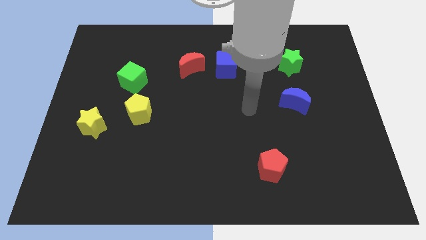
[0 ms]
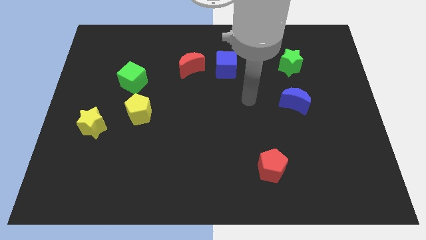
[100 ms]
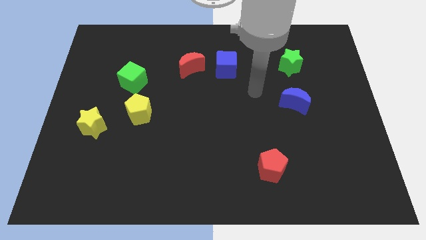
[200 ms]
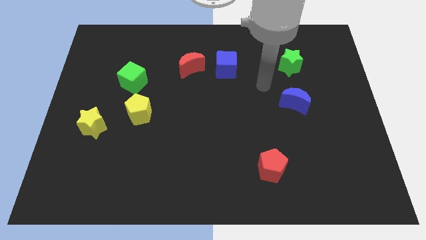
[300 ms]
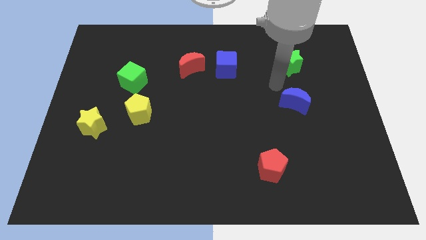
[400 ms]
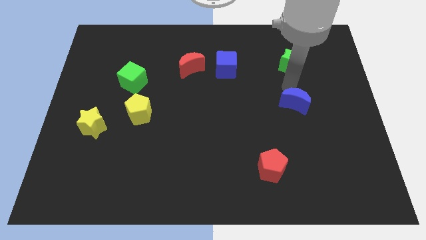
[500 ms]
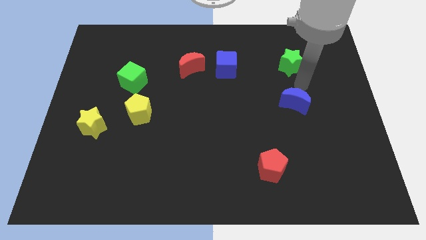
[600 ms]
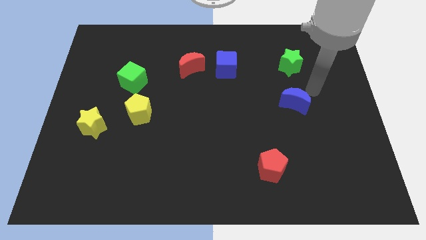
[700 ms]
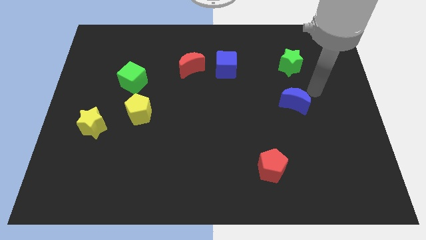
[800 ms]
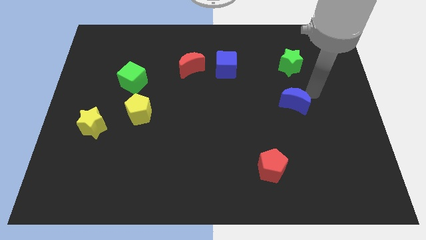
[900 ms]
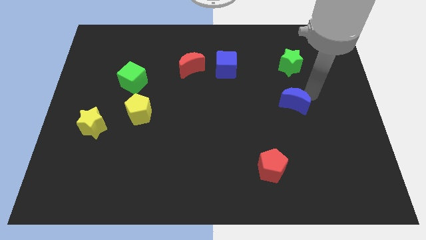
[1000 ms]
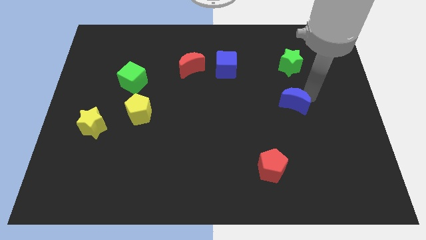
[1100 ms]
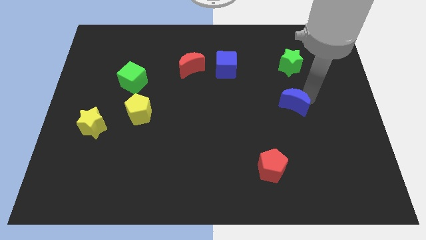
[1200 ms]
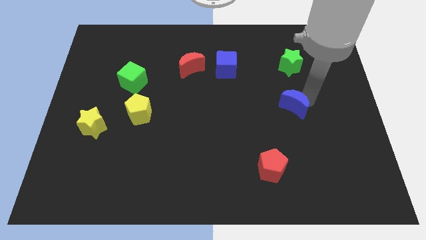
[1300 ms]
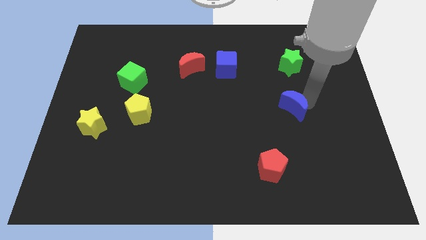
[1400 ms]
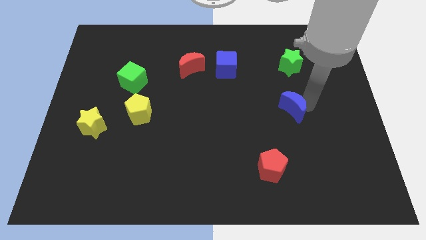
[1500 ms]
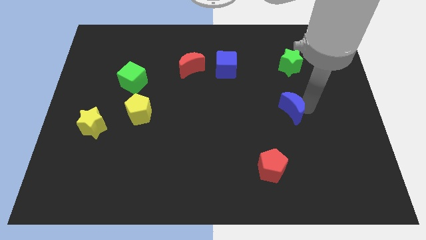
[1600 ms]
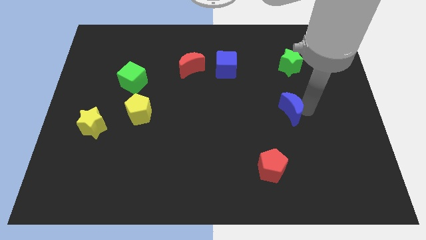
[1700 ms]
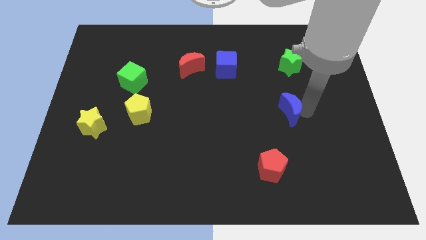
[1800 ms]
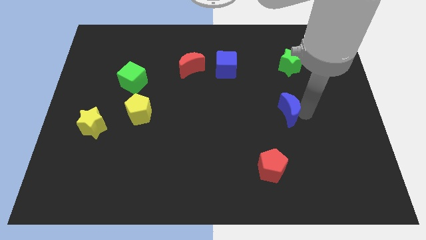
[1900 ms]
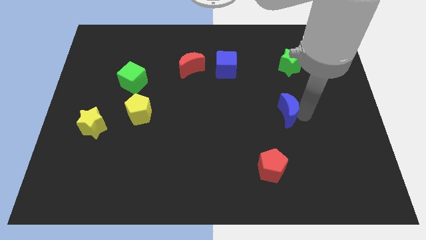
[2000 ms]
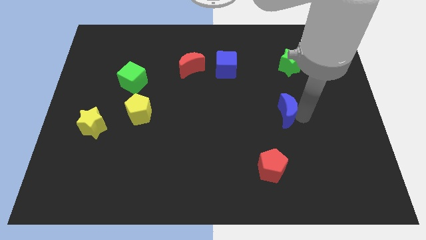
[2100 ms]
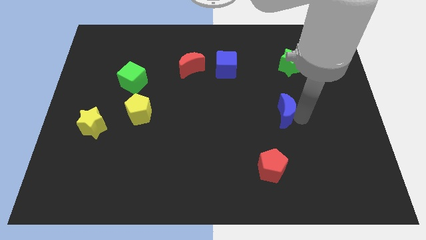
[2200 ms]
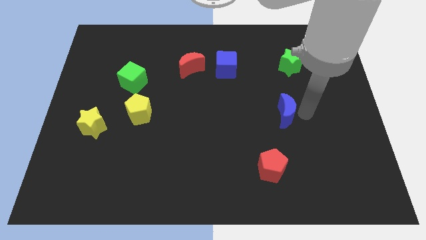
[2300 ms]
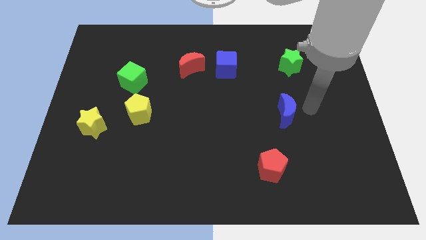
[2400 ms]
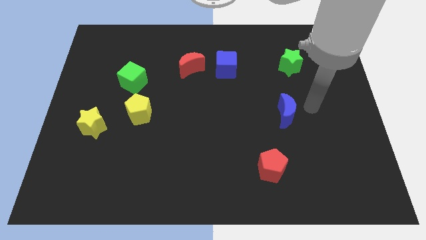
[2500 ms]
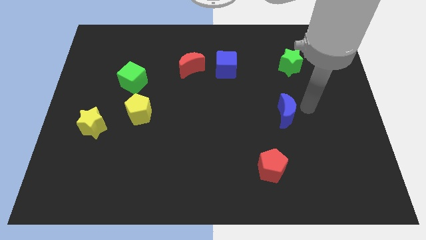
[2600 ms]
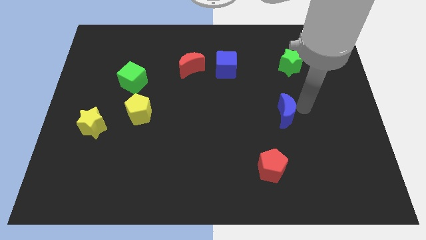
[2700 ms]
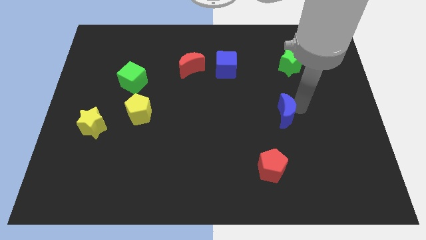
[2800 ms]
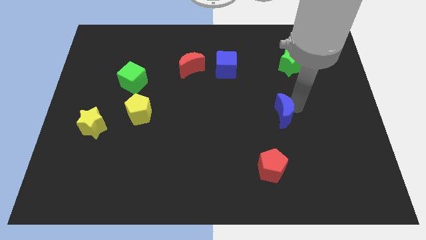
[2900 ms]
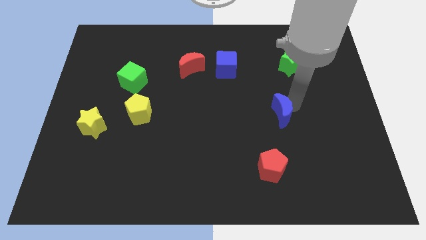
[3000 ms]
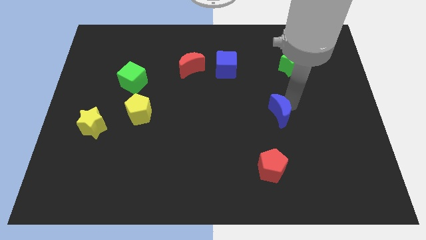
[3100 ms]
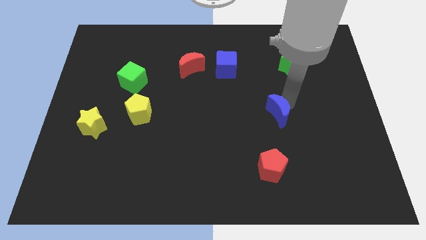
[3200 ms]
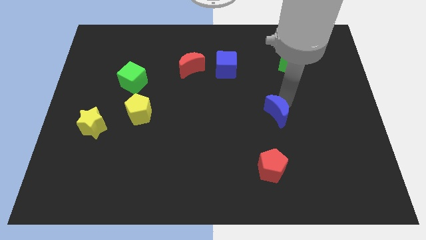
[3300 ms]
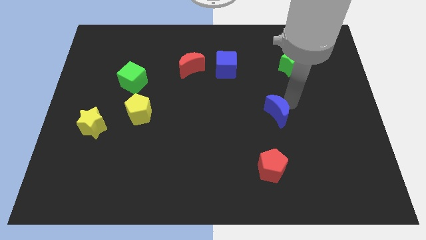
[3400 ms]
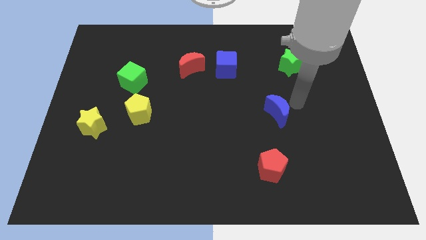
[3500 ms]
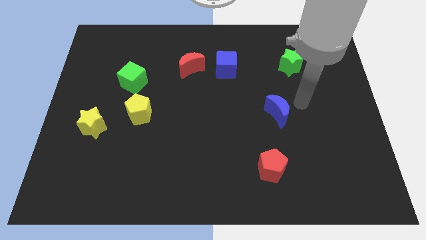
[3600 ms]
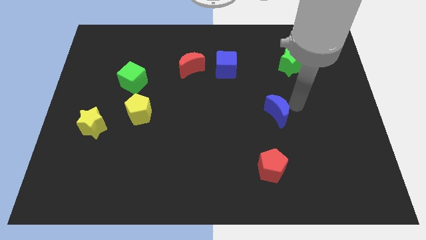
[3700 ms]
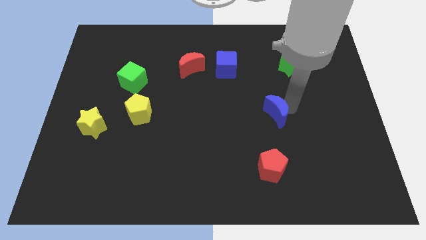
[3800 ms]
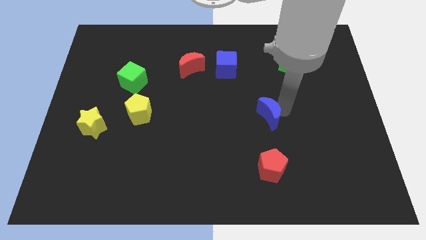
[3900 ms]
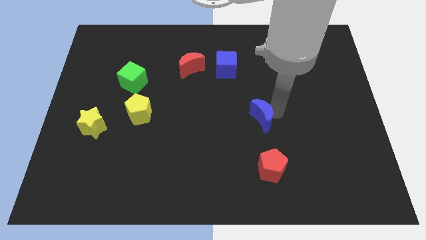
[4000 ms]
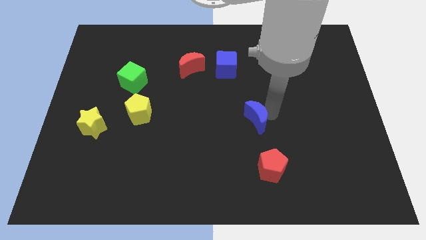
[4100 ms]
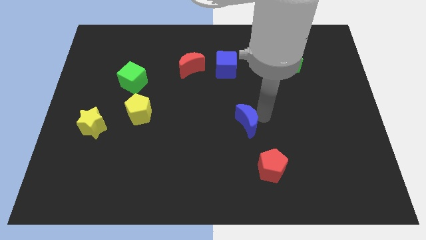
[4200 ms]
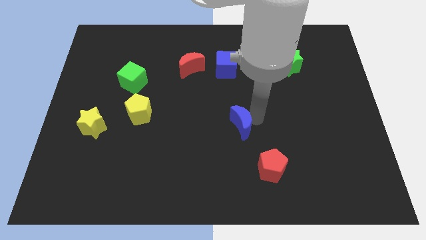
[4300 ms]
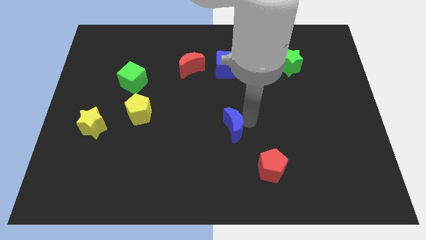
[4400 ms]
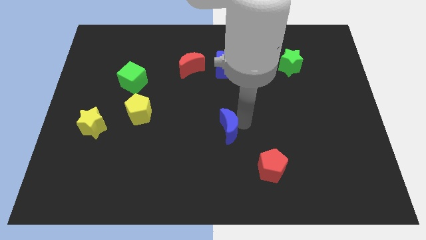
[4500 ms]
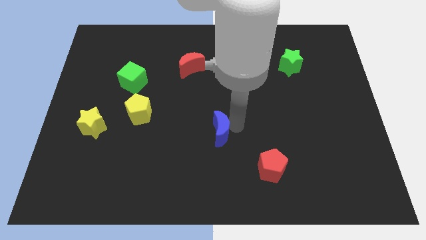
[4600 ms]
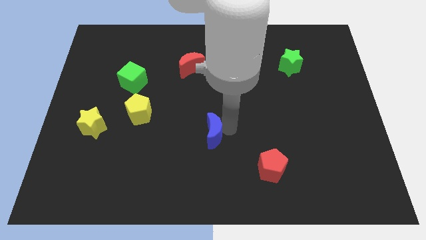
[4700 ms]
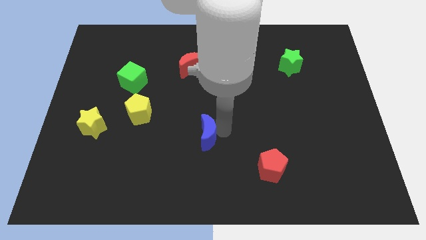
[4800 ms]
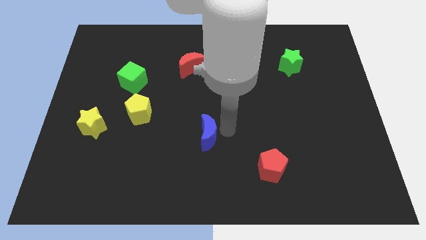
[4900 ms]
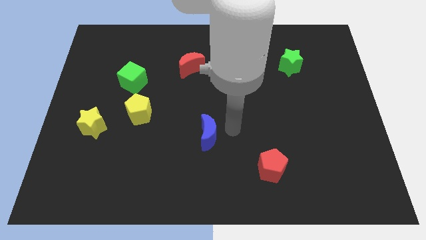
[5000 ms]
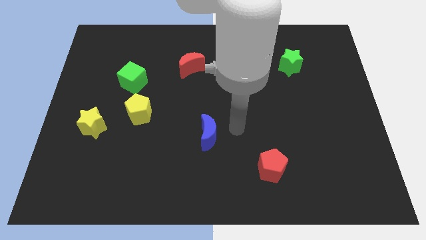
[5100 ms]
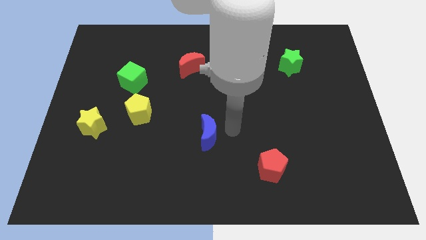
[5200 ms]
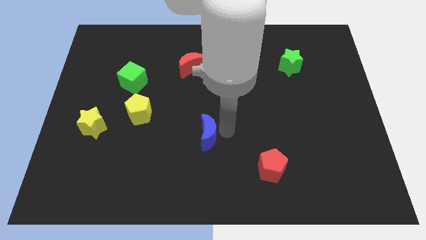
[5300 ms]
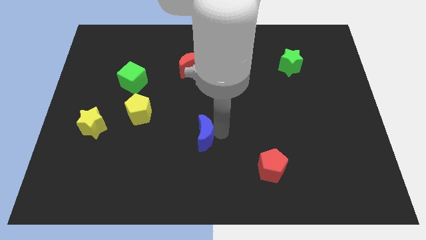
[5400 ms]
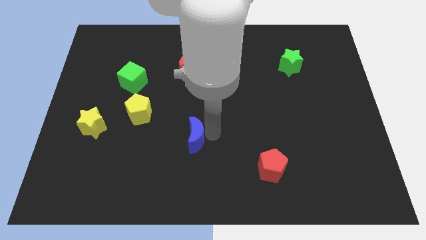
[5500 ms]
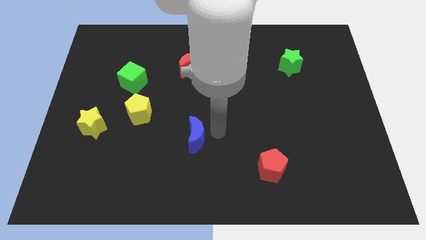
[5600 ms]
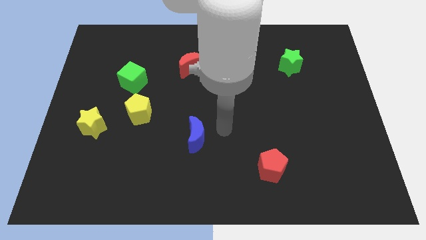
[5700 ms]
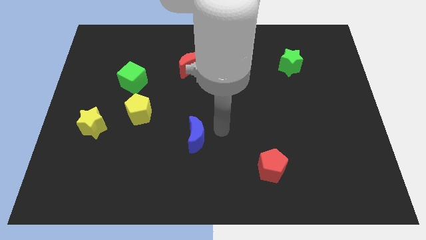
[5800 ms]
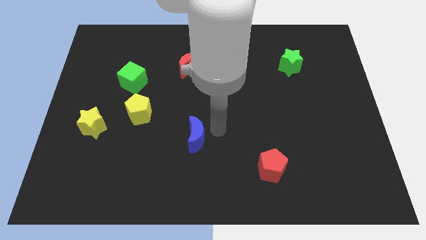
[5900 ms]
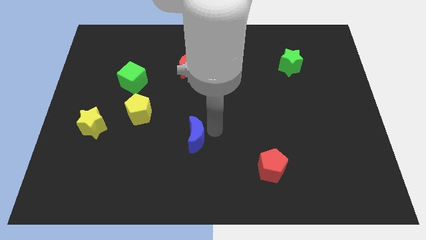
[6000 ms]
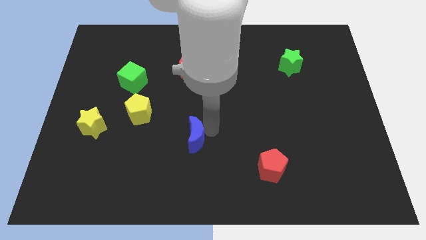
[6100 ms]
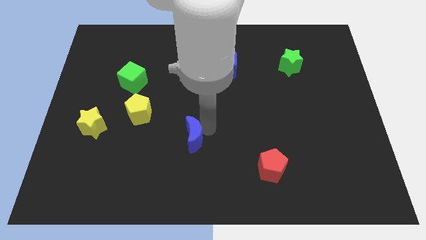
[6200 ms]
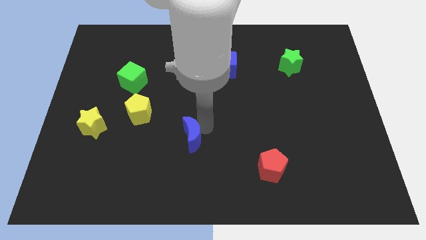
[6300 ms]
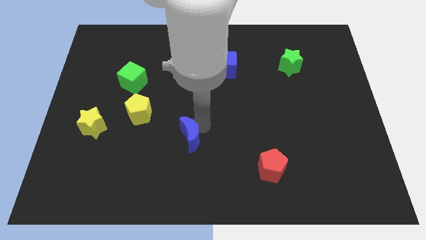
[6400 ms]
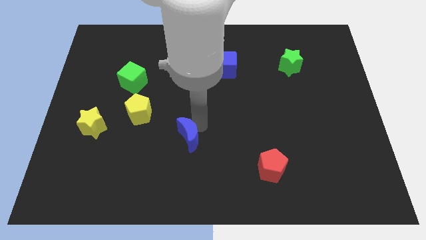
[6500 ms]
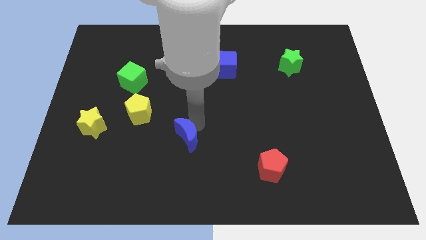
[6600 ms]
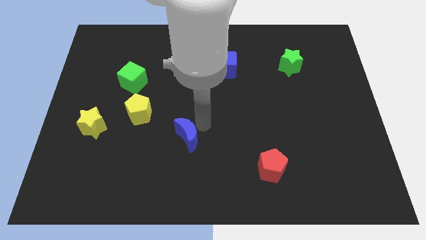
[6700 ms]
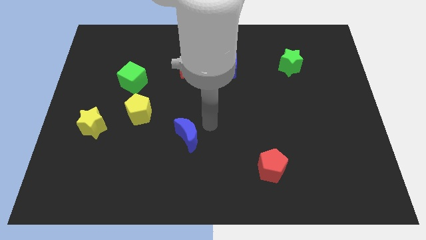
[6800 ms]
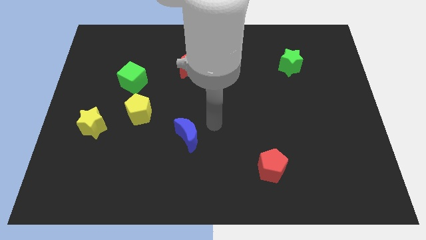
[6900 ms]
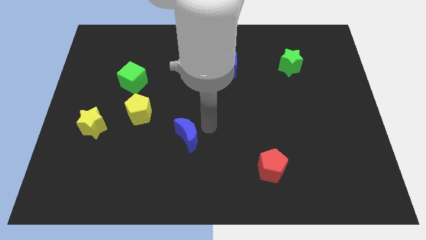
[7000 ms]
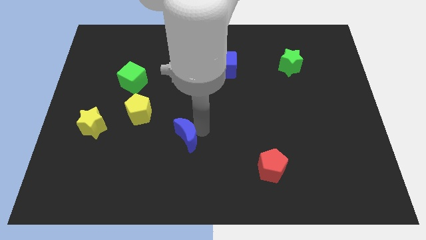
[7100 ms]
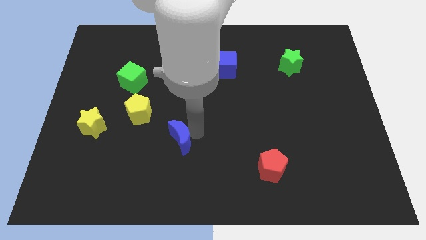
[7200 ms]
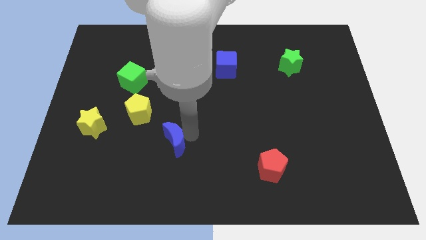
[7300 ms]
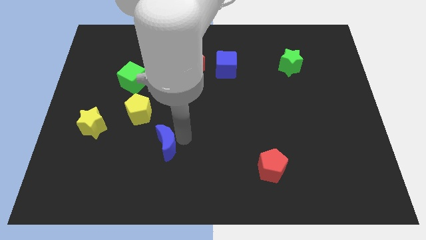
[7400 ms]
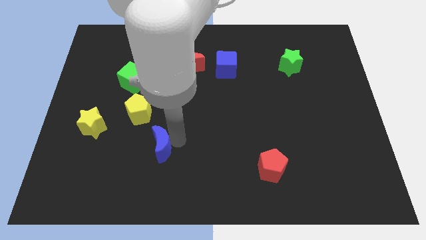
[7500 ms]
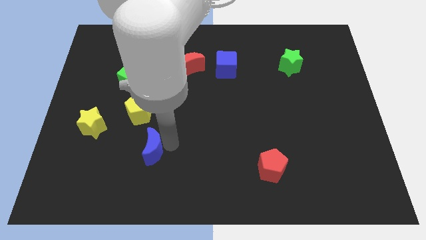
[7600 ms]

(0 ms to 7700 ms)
put the blue moon to the bottom side of the yellow pentagon

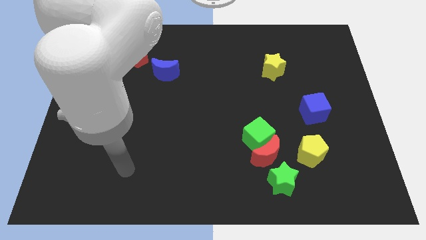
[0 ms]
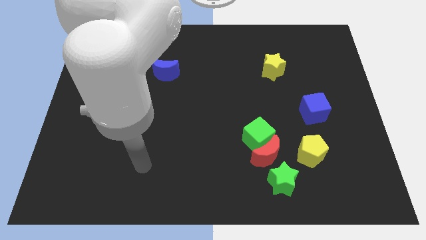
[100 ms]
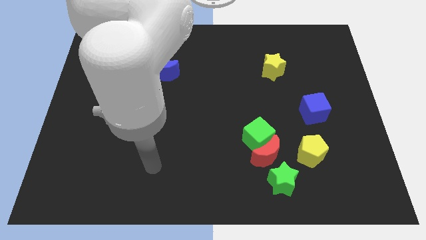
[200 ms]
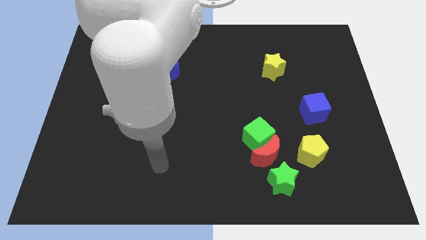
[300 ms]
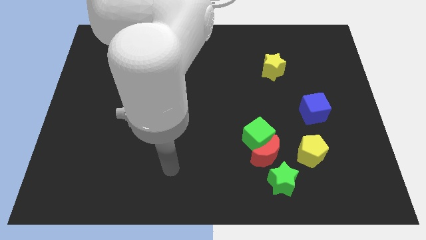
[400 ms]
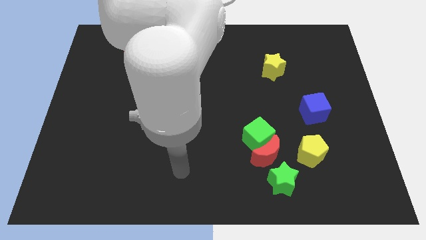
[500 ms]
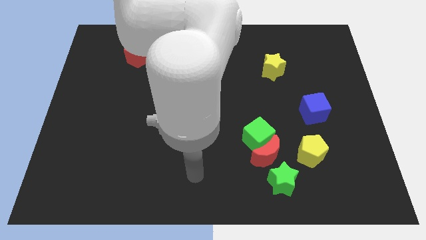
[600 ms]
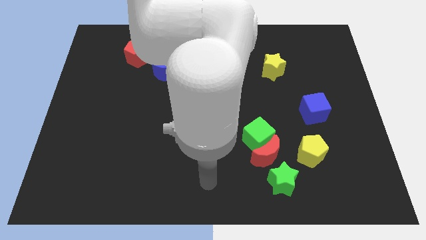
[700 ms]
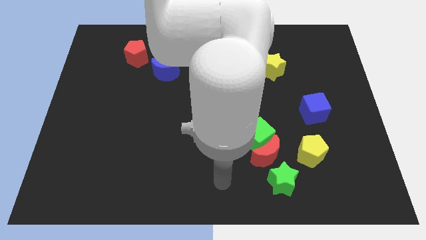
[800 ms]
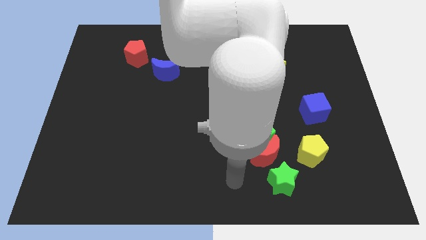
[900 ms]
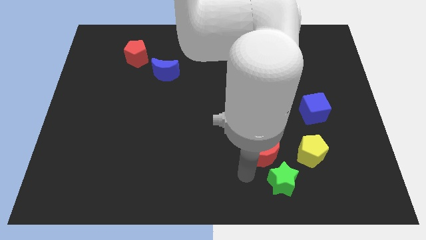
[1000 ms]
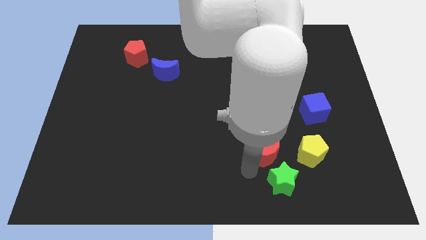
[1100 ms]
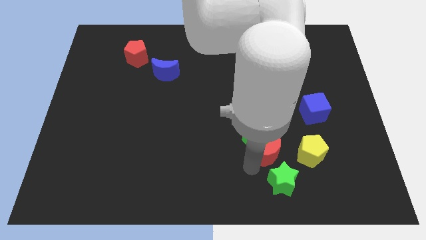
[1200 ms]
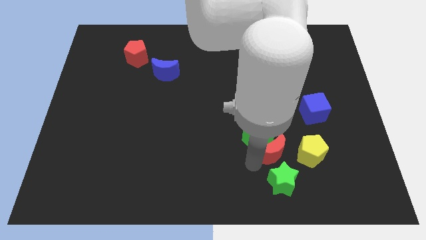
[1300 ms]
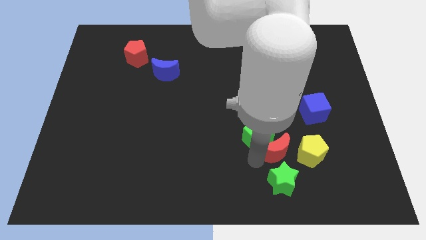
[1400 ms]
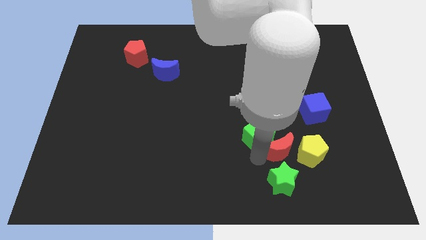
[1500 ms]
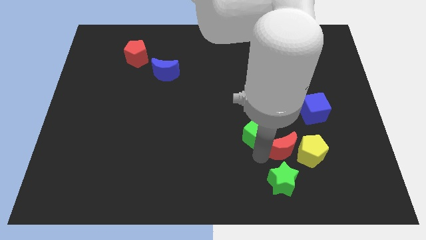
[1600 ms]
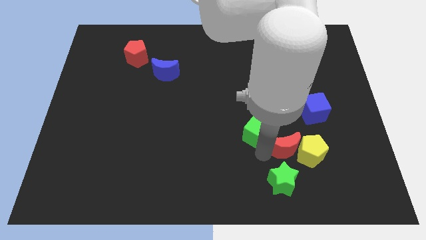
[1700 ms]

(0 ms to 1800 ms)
move the red moon diagonally down and to the left of the blue cube
